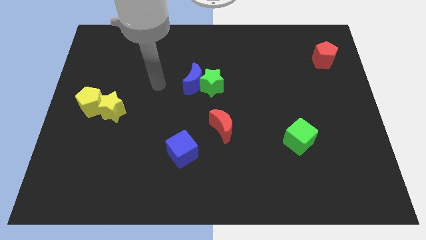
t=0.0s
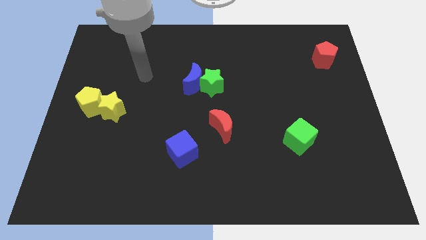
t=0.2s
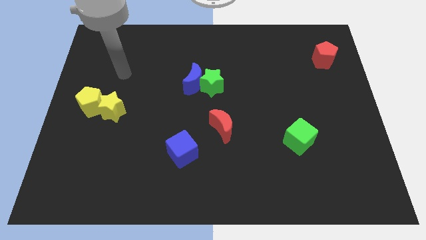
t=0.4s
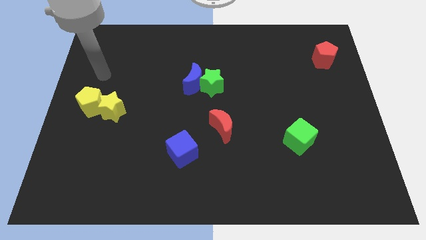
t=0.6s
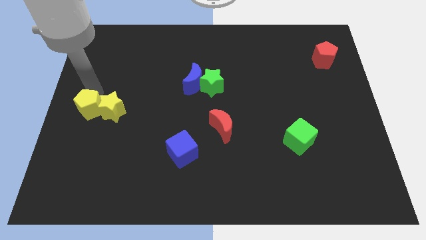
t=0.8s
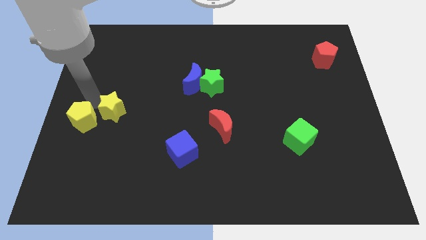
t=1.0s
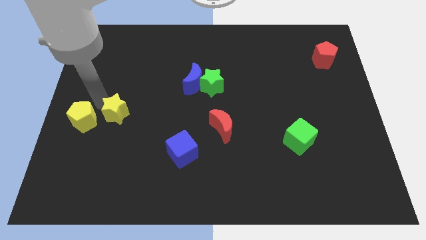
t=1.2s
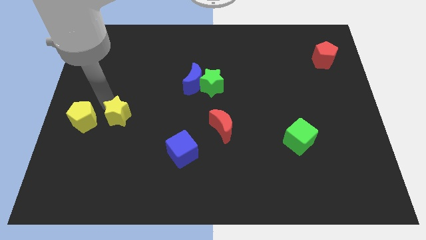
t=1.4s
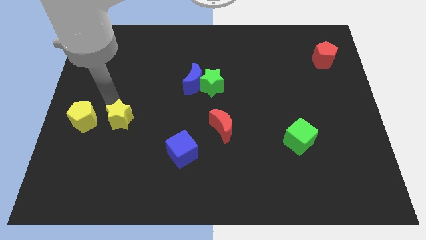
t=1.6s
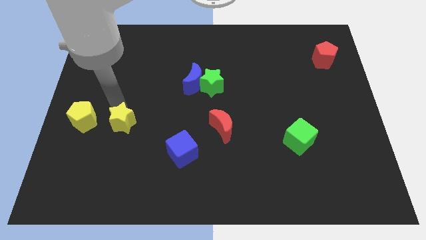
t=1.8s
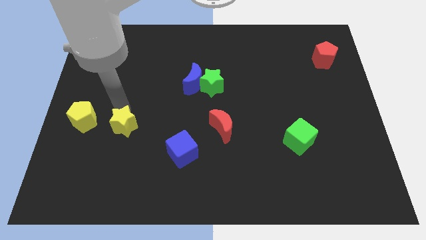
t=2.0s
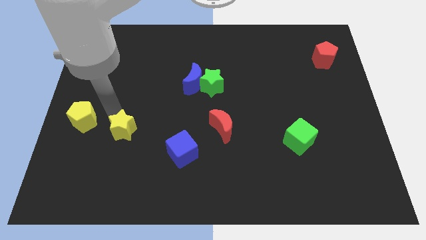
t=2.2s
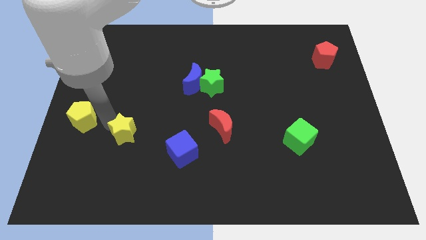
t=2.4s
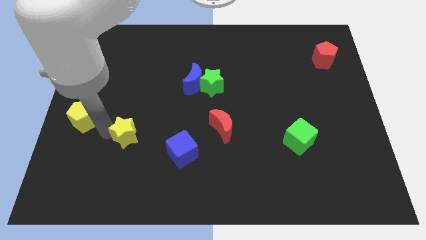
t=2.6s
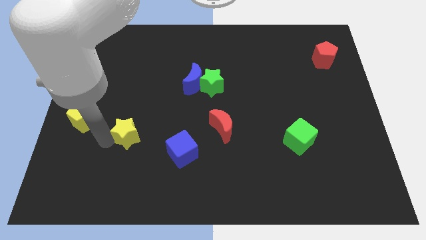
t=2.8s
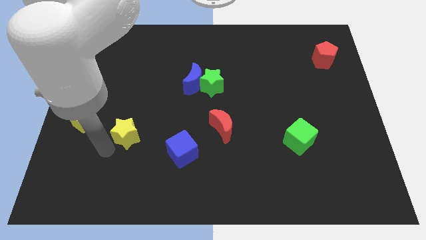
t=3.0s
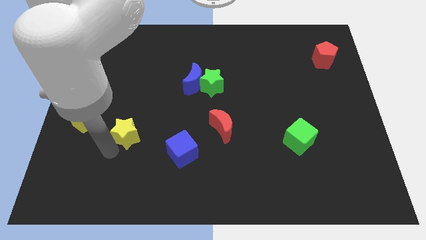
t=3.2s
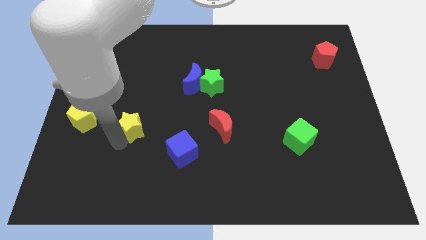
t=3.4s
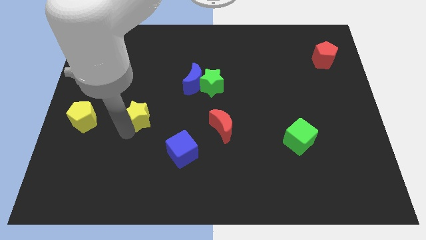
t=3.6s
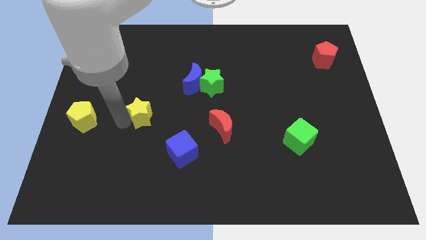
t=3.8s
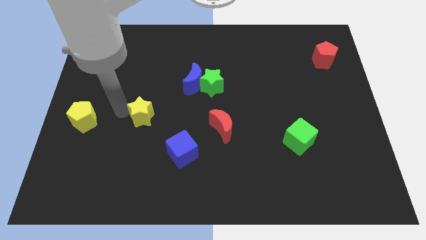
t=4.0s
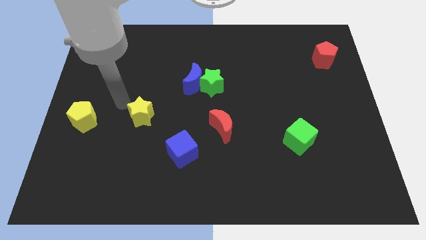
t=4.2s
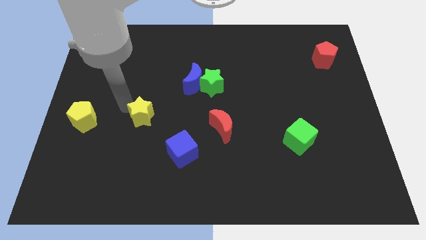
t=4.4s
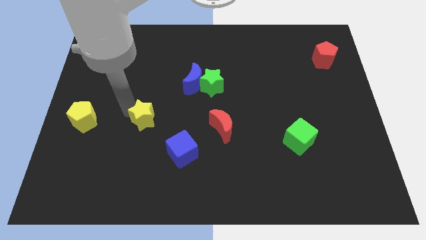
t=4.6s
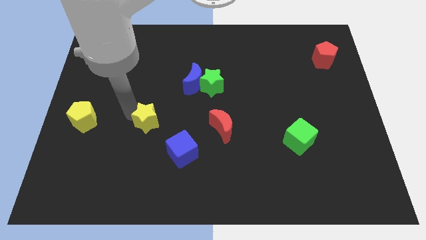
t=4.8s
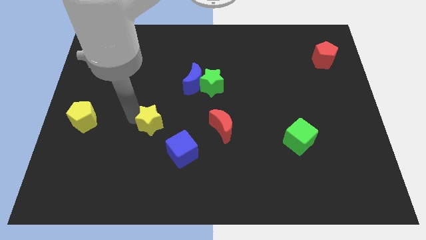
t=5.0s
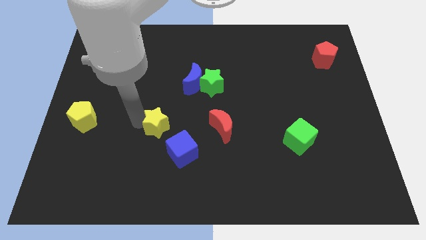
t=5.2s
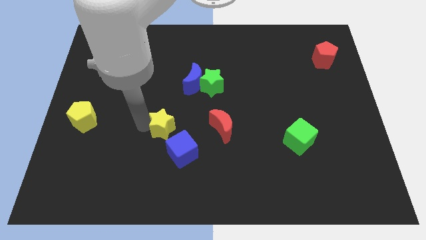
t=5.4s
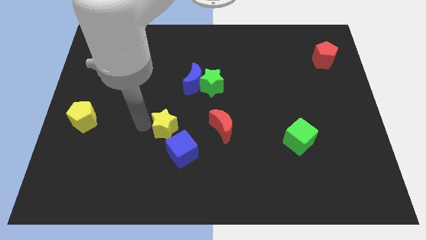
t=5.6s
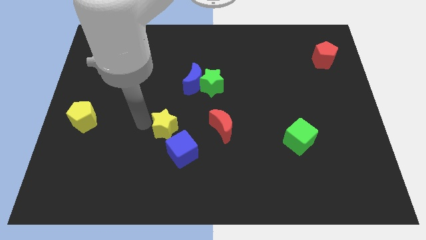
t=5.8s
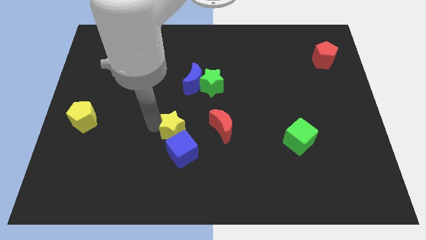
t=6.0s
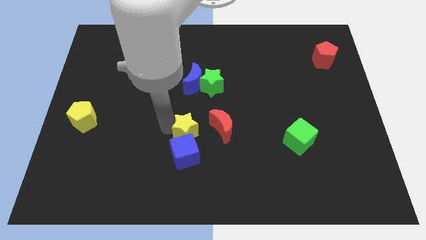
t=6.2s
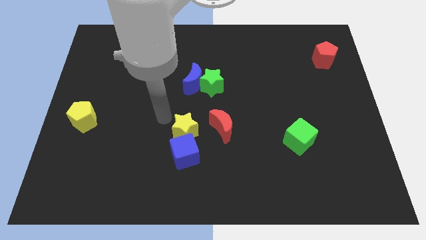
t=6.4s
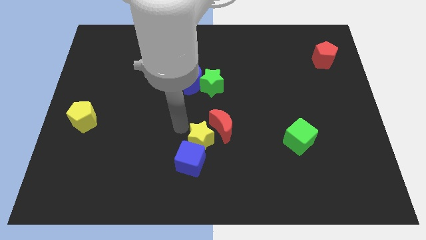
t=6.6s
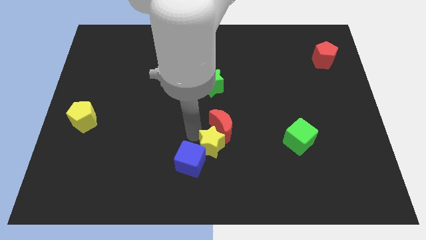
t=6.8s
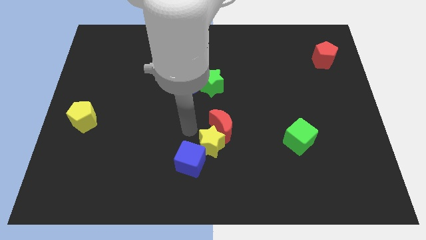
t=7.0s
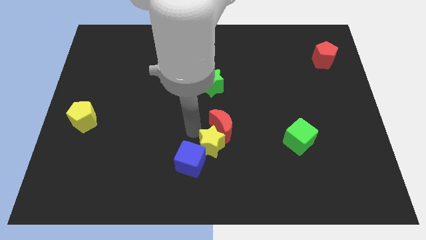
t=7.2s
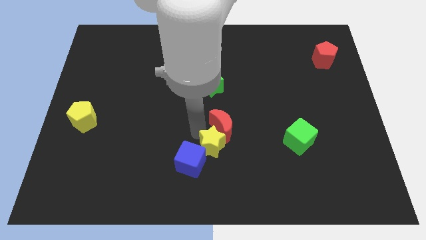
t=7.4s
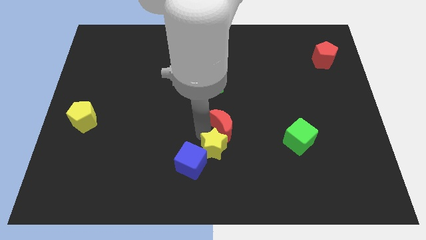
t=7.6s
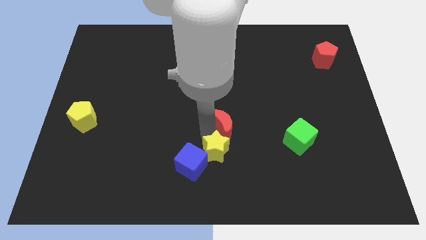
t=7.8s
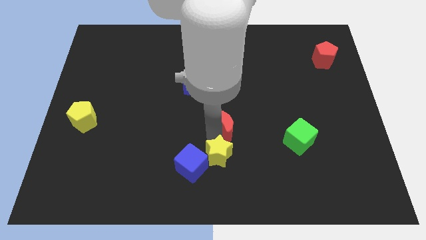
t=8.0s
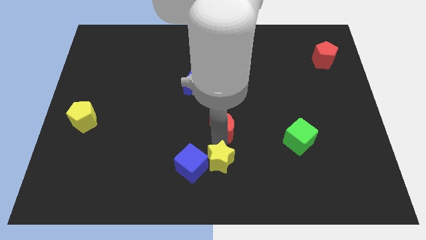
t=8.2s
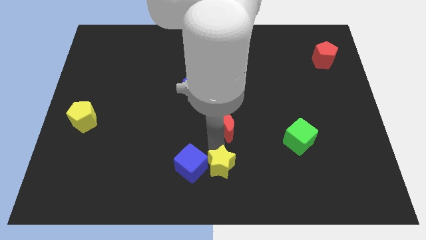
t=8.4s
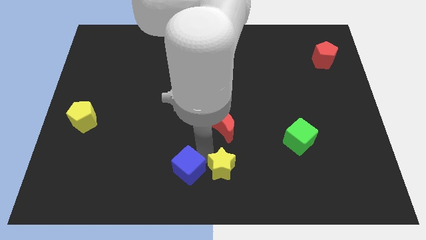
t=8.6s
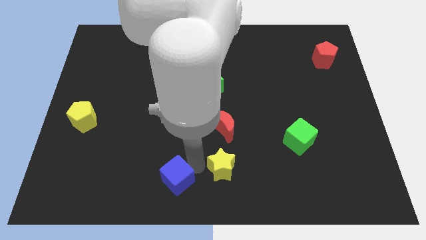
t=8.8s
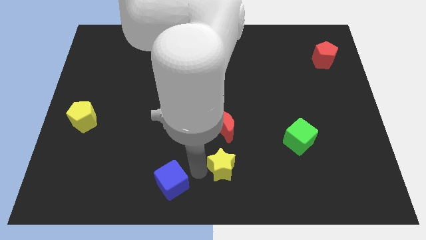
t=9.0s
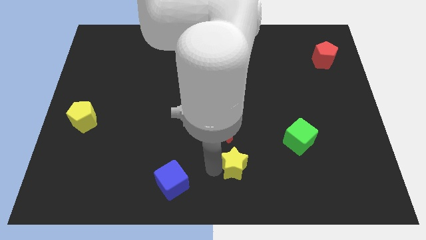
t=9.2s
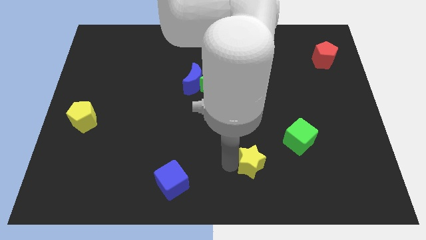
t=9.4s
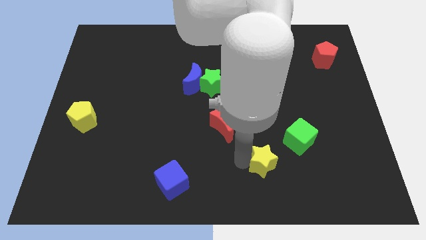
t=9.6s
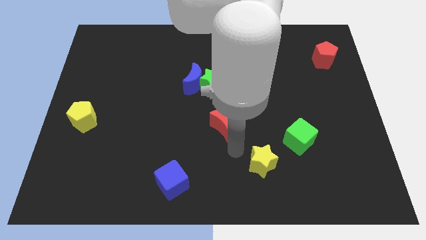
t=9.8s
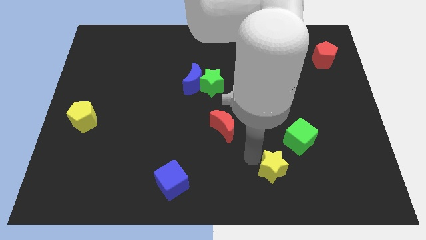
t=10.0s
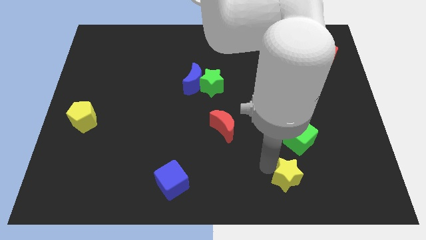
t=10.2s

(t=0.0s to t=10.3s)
put the yellow star to the bottom side of the green cube

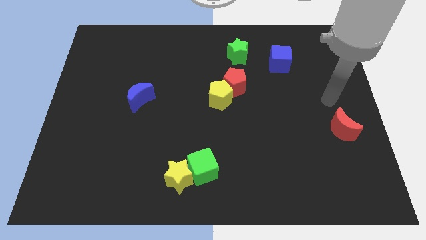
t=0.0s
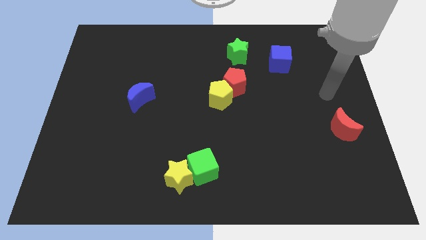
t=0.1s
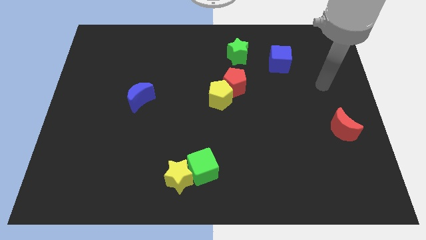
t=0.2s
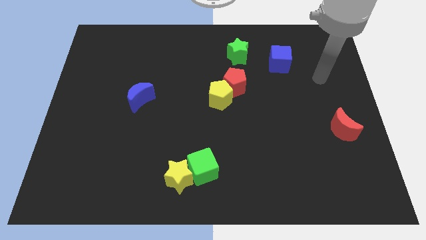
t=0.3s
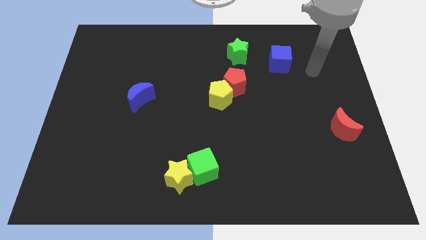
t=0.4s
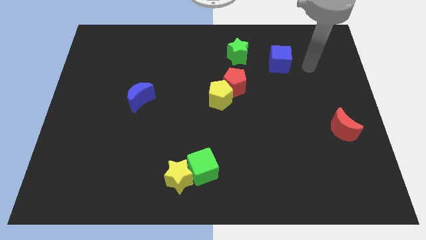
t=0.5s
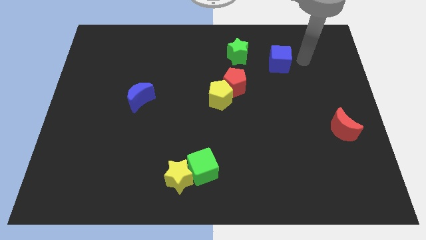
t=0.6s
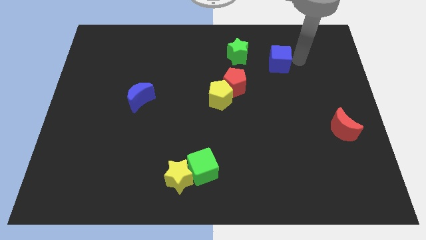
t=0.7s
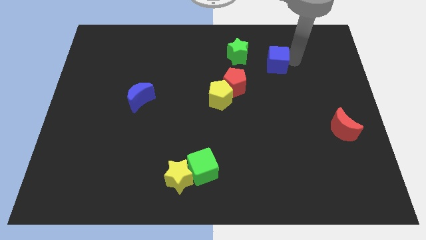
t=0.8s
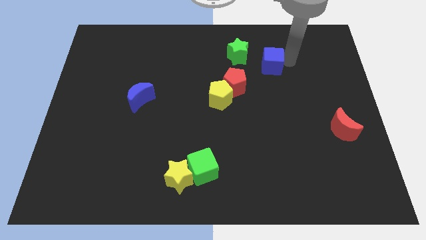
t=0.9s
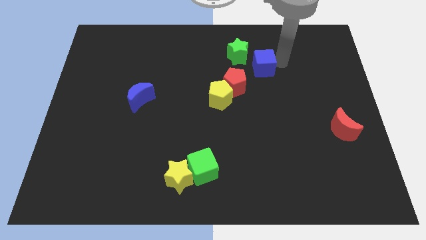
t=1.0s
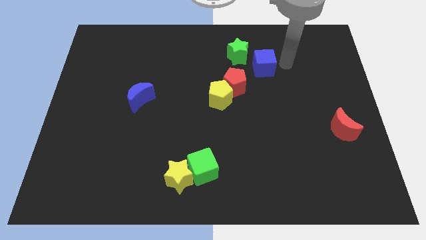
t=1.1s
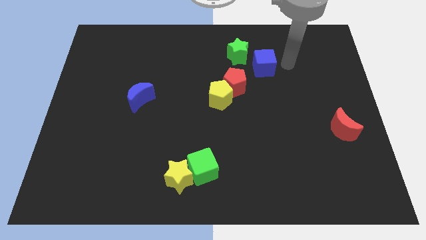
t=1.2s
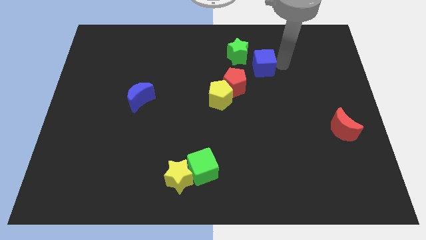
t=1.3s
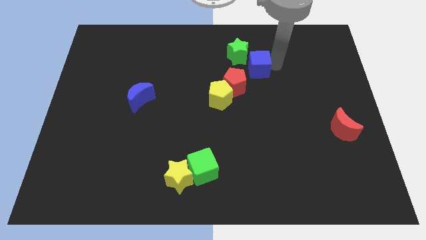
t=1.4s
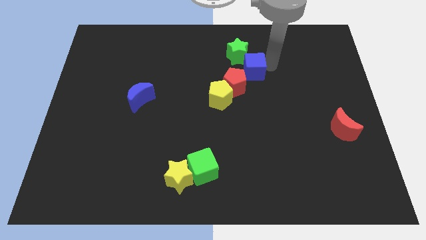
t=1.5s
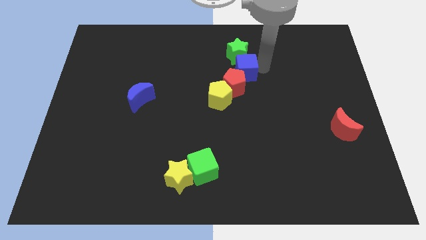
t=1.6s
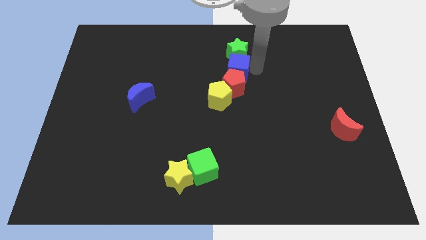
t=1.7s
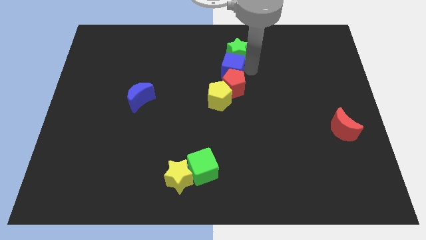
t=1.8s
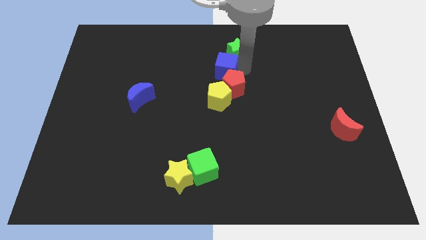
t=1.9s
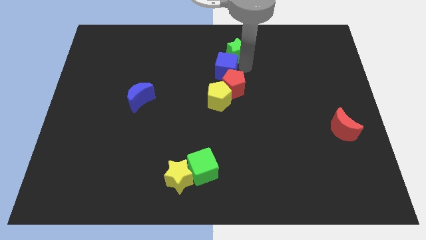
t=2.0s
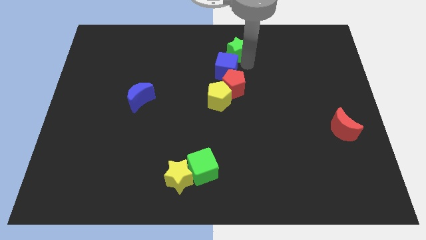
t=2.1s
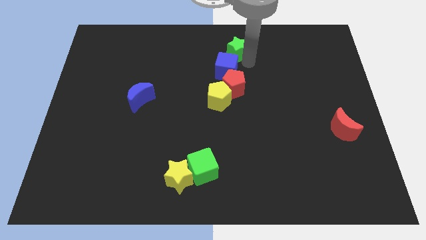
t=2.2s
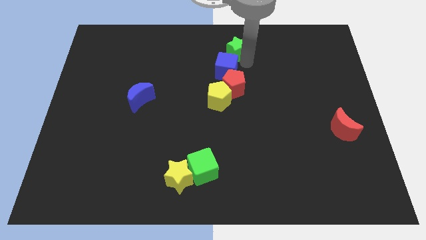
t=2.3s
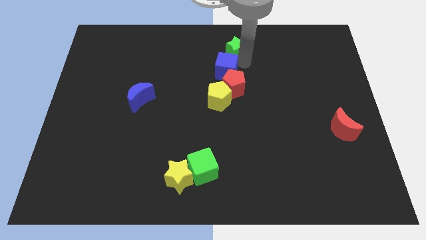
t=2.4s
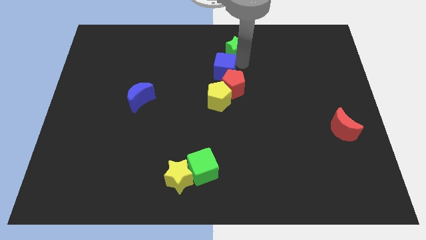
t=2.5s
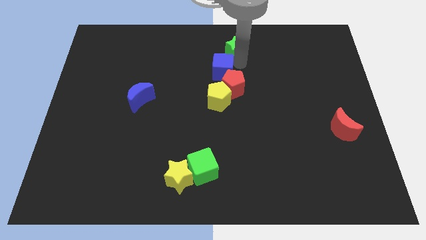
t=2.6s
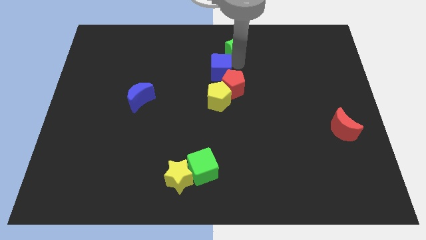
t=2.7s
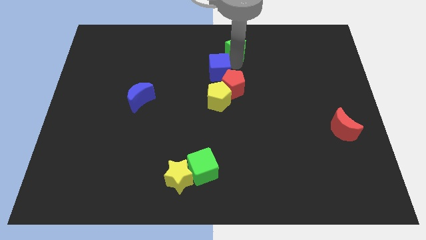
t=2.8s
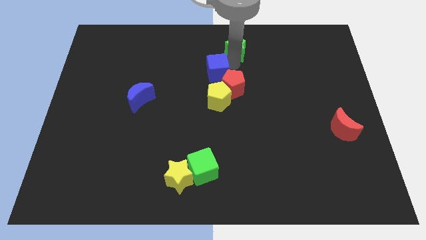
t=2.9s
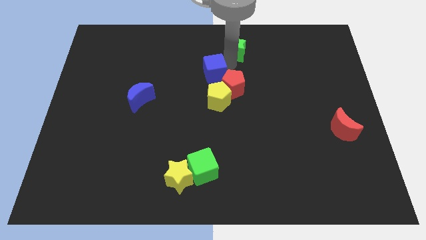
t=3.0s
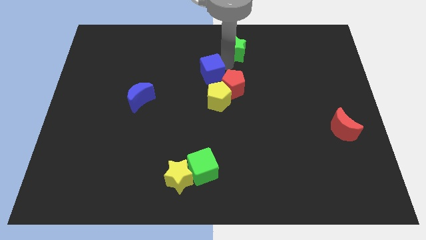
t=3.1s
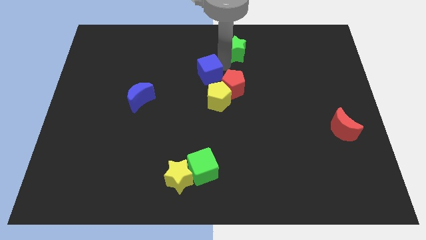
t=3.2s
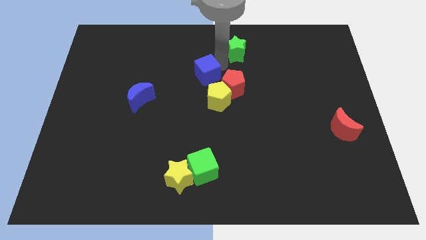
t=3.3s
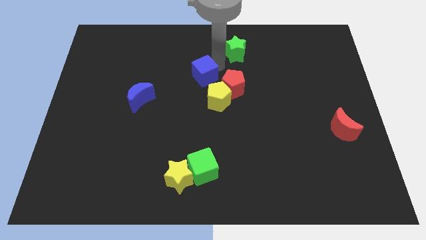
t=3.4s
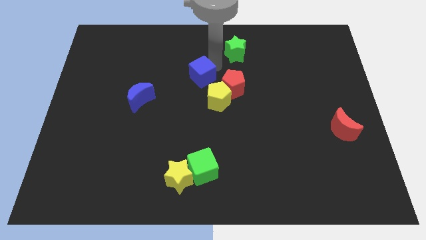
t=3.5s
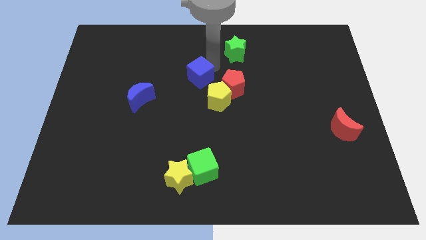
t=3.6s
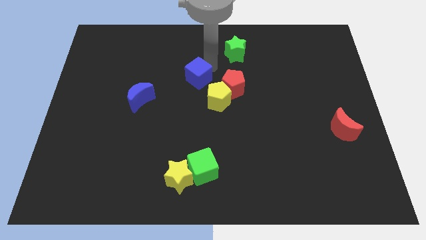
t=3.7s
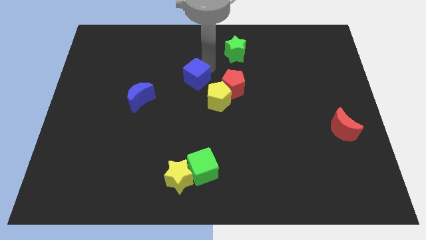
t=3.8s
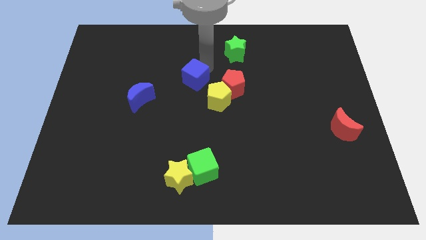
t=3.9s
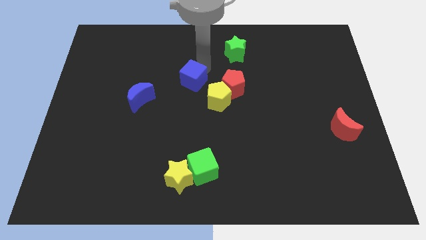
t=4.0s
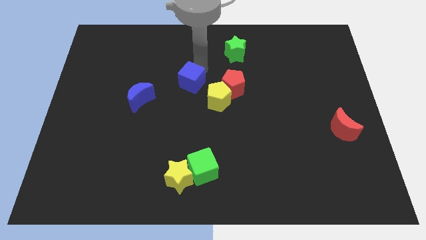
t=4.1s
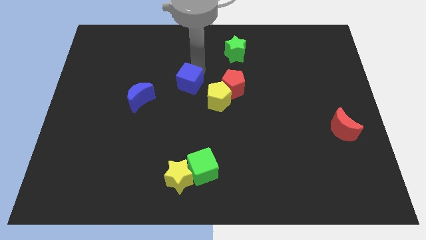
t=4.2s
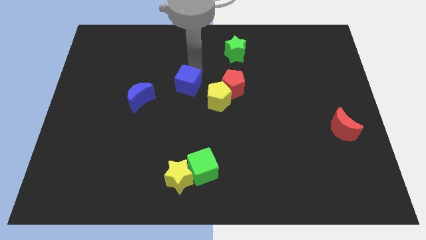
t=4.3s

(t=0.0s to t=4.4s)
put the blue cube just right of the blue moon
